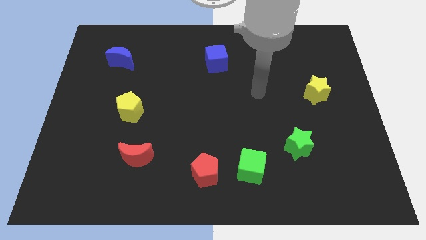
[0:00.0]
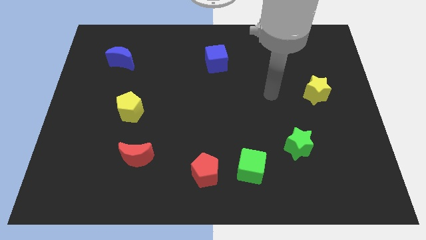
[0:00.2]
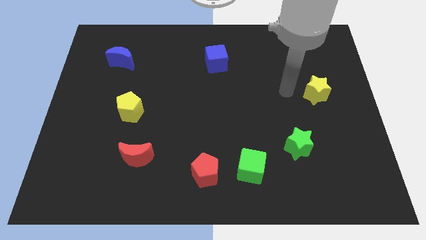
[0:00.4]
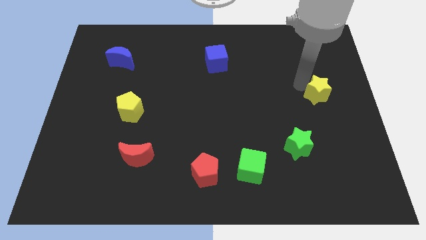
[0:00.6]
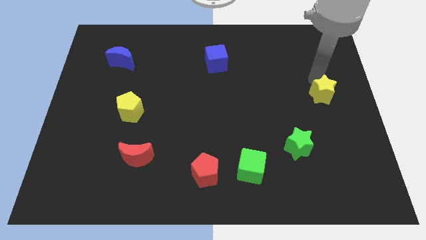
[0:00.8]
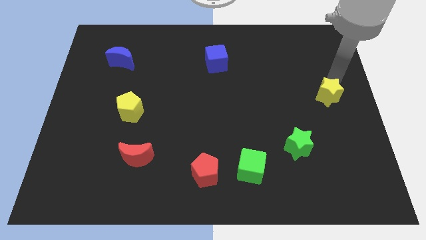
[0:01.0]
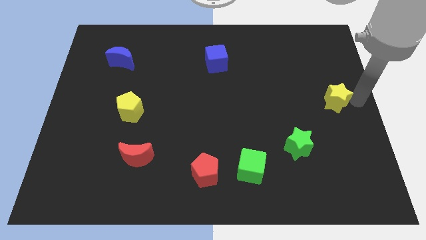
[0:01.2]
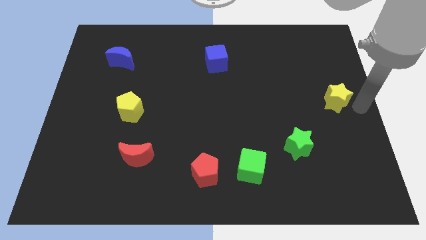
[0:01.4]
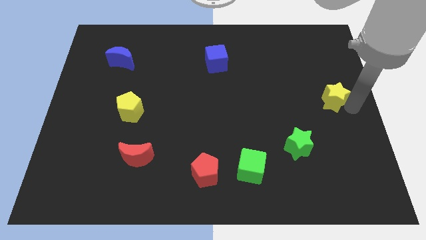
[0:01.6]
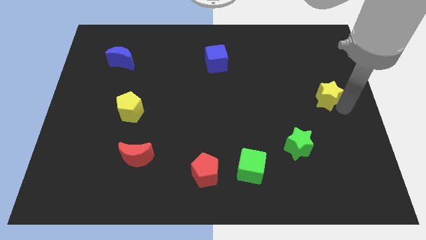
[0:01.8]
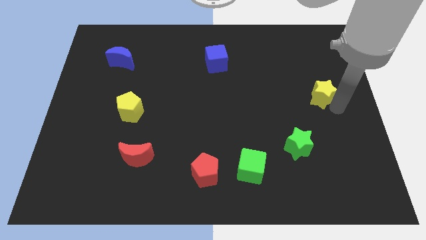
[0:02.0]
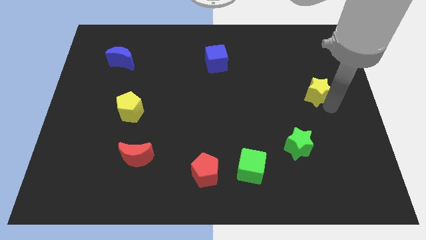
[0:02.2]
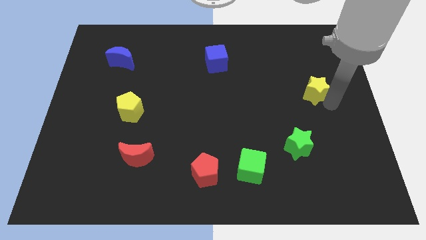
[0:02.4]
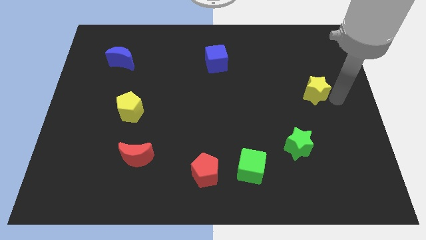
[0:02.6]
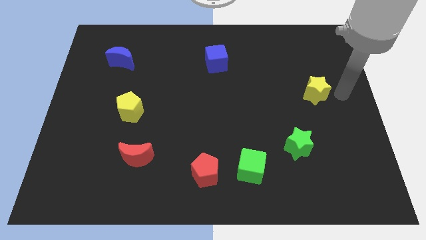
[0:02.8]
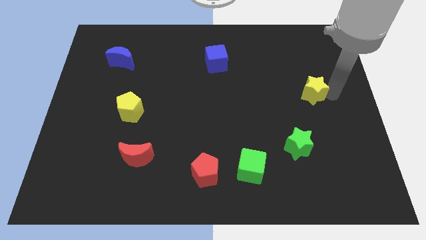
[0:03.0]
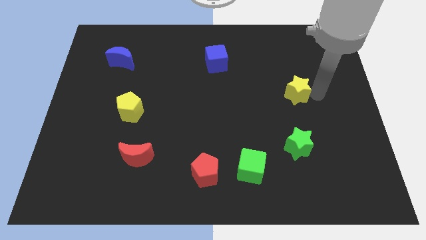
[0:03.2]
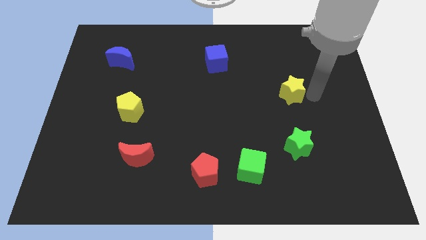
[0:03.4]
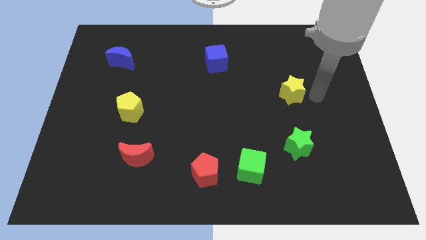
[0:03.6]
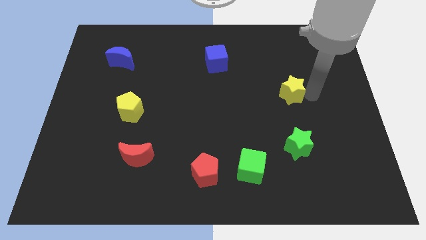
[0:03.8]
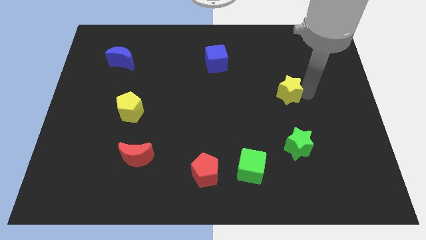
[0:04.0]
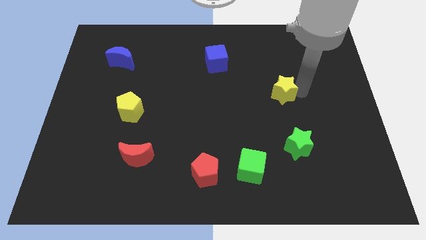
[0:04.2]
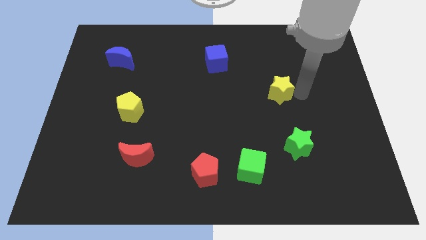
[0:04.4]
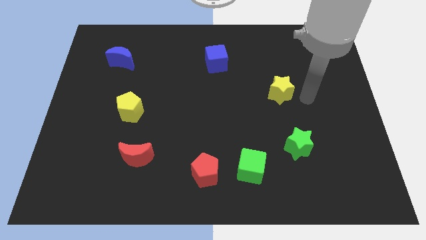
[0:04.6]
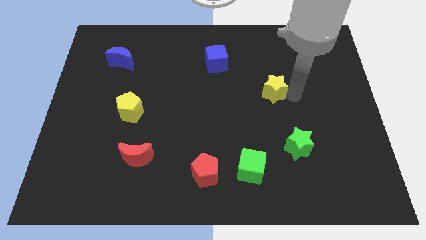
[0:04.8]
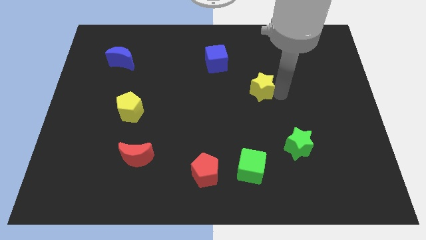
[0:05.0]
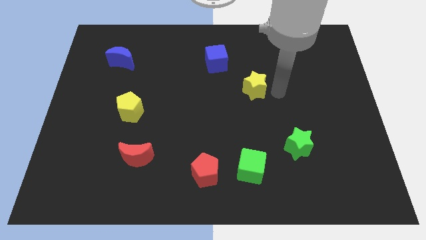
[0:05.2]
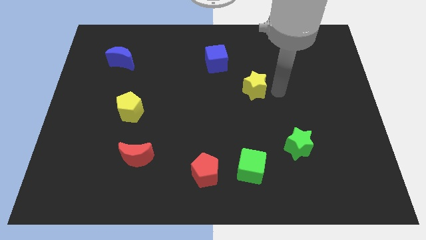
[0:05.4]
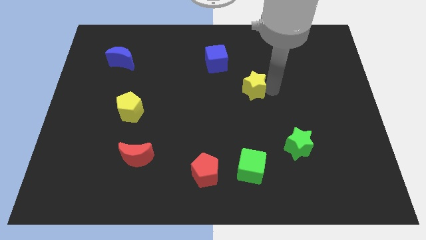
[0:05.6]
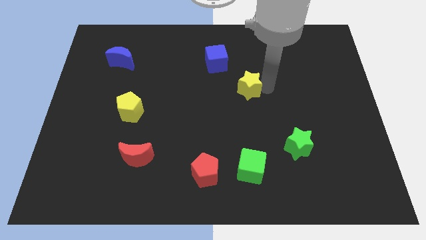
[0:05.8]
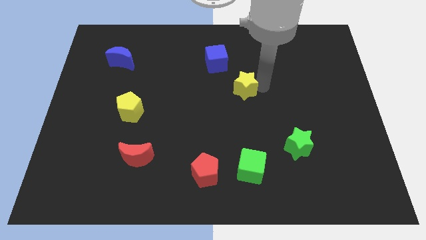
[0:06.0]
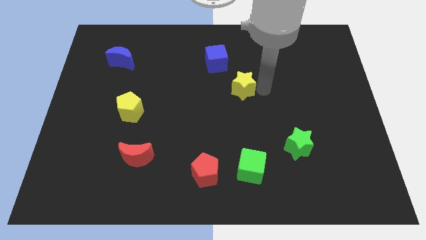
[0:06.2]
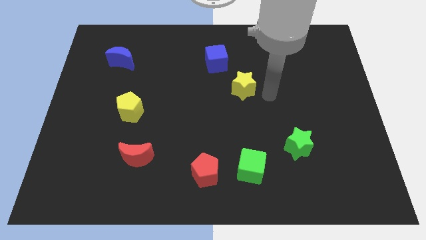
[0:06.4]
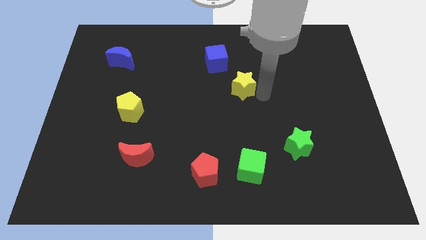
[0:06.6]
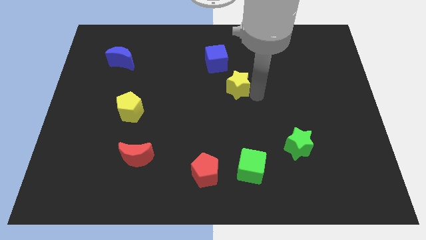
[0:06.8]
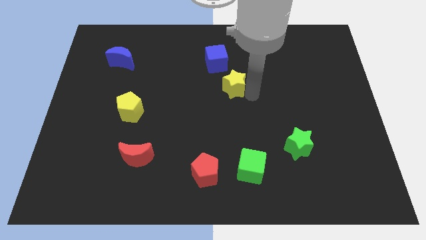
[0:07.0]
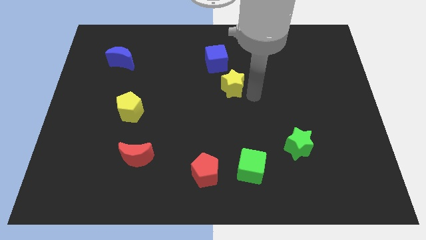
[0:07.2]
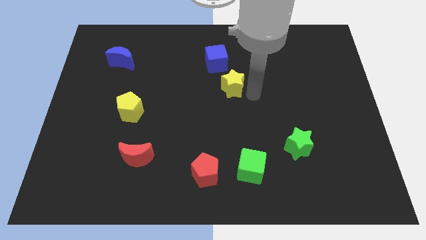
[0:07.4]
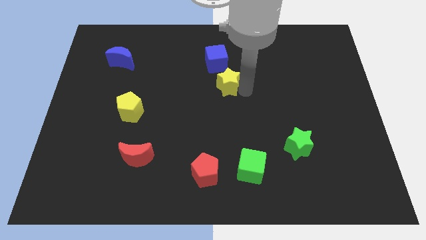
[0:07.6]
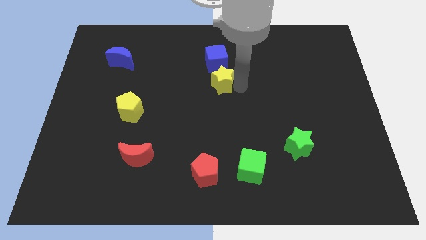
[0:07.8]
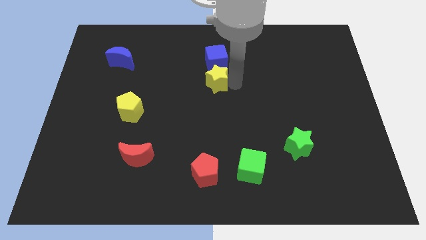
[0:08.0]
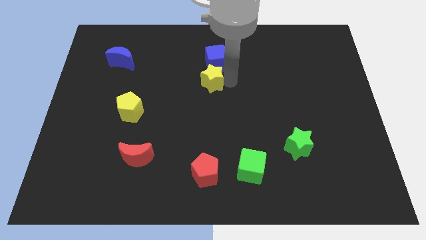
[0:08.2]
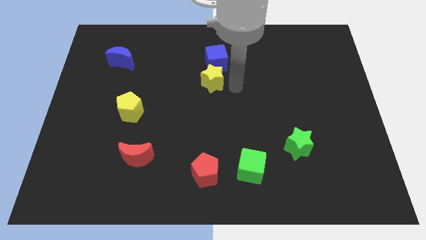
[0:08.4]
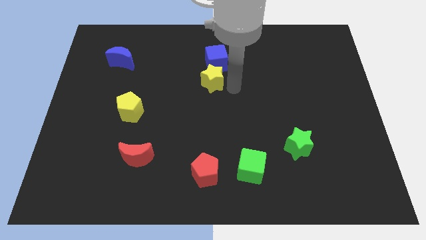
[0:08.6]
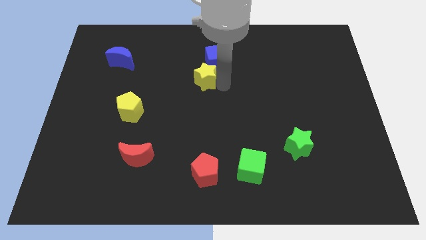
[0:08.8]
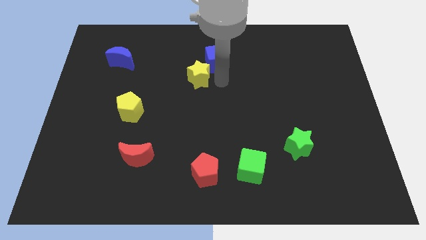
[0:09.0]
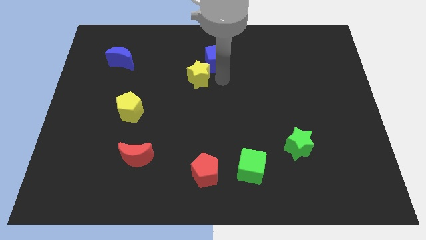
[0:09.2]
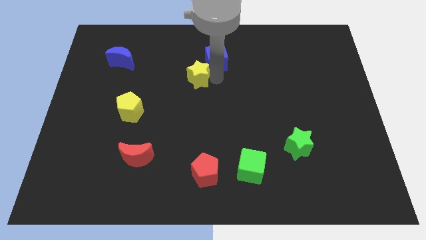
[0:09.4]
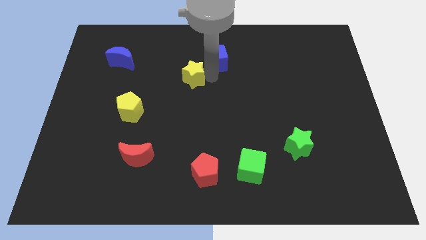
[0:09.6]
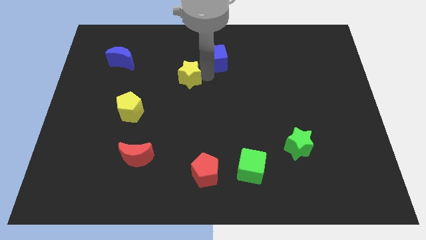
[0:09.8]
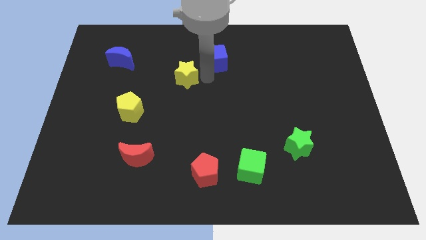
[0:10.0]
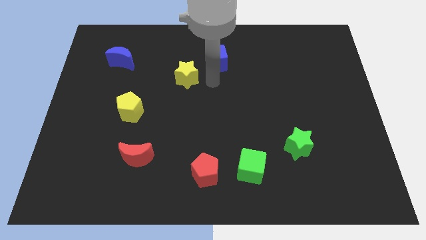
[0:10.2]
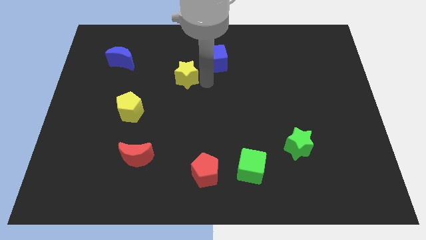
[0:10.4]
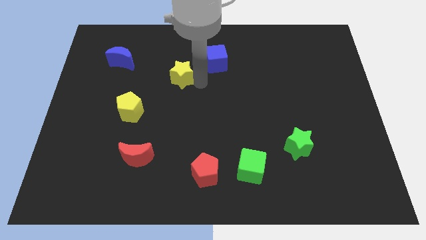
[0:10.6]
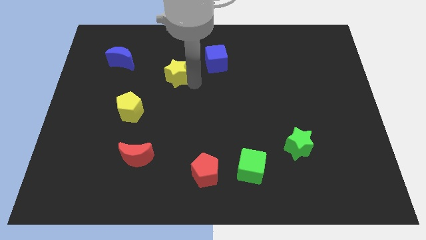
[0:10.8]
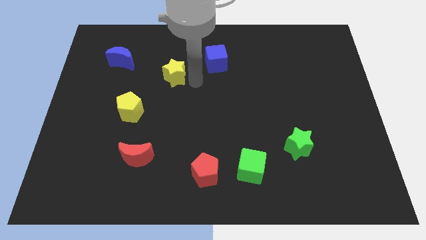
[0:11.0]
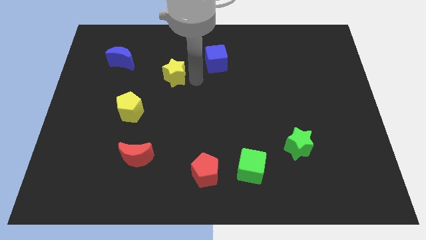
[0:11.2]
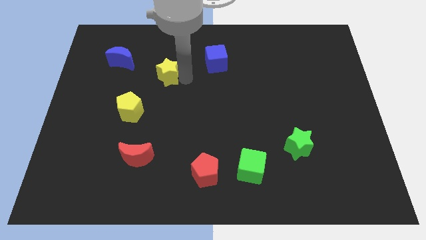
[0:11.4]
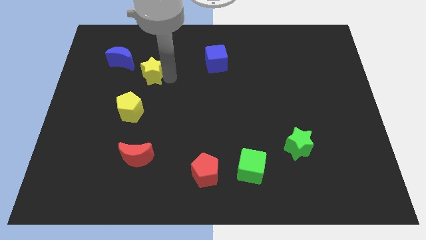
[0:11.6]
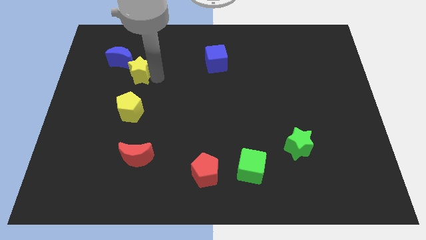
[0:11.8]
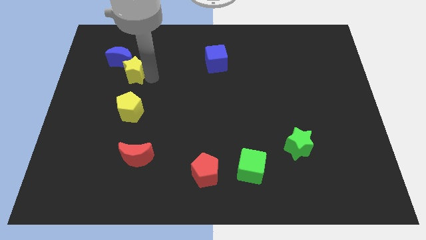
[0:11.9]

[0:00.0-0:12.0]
put the yellow star towards the blue moon
